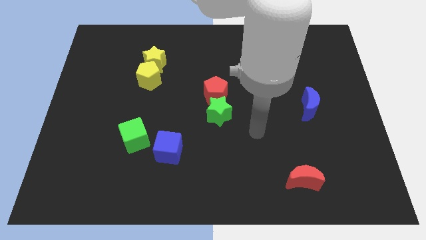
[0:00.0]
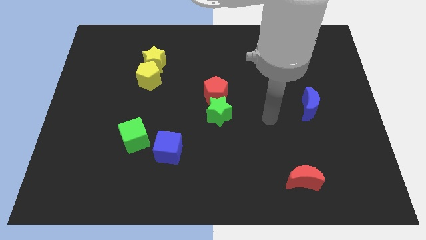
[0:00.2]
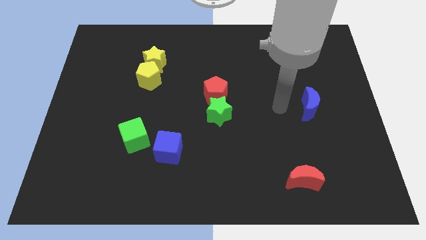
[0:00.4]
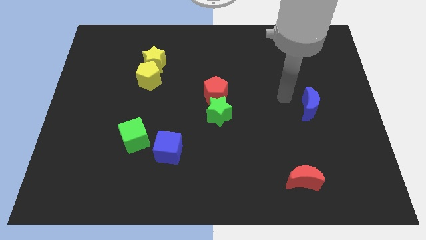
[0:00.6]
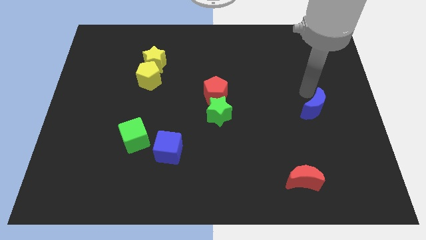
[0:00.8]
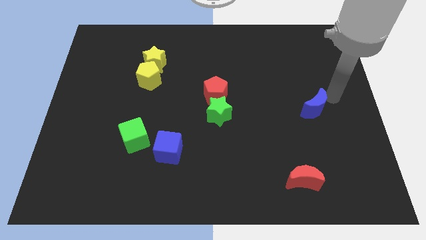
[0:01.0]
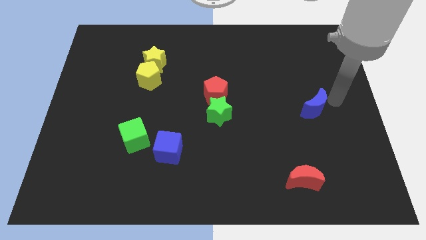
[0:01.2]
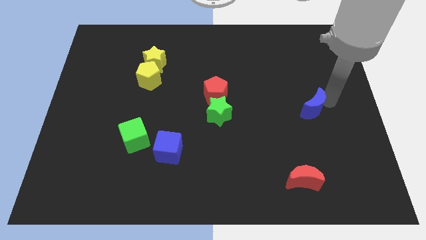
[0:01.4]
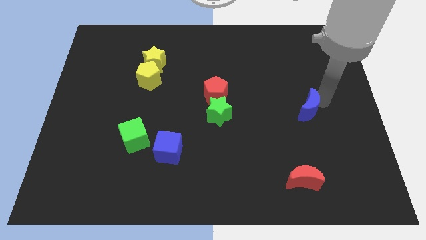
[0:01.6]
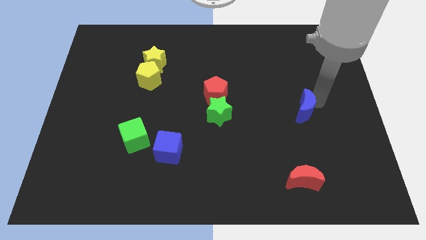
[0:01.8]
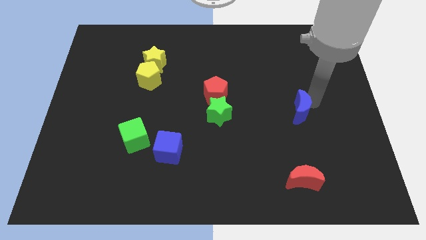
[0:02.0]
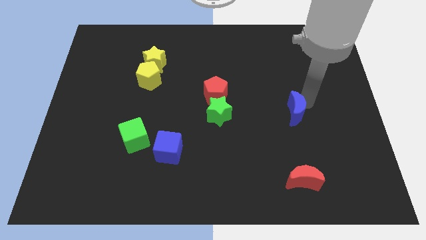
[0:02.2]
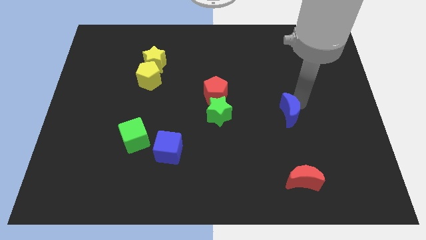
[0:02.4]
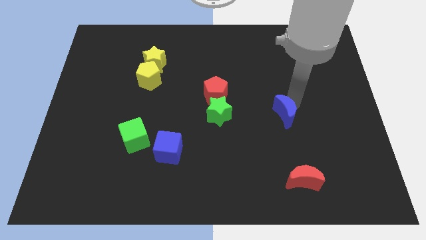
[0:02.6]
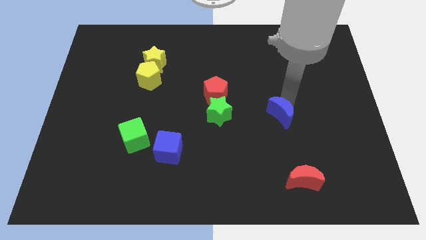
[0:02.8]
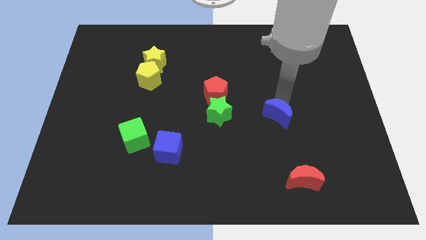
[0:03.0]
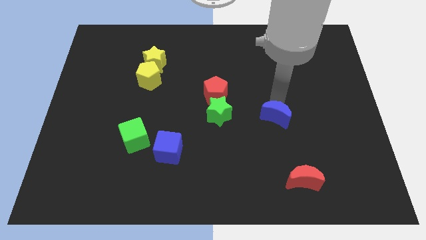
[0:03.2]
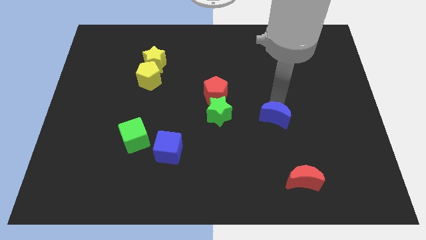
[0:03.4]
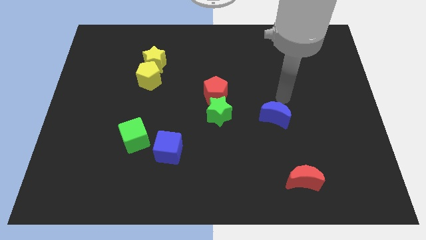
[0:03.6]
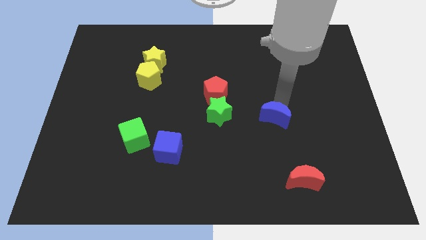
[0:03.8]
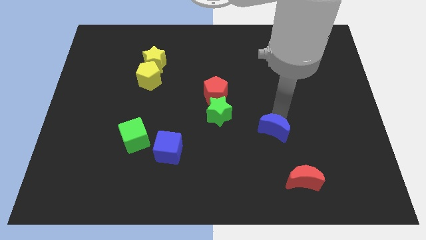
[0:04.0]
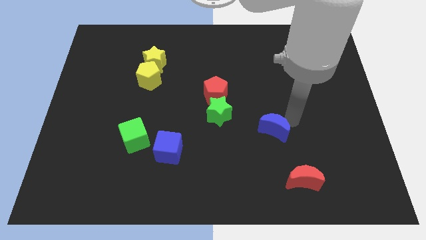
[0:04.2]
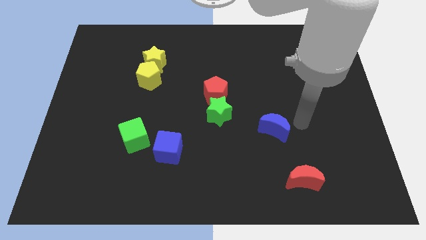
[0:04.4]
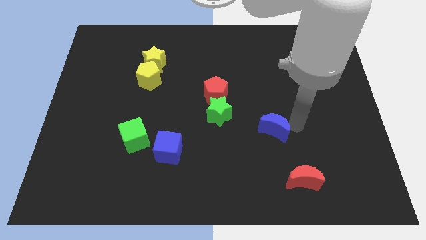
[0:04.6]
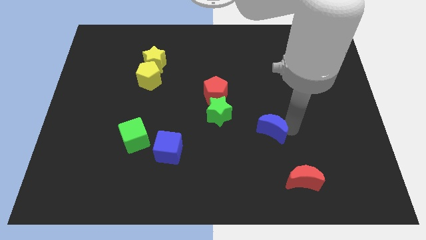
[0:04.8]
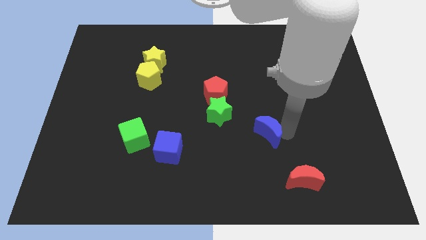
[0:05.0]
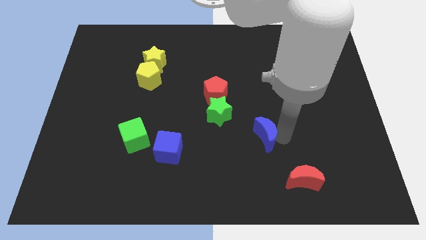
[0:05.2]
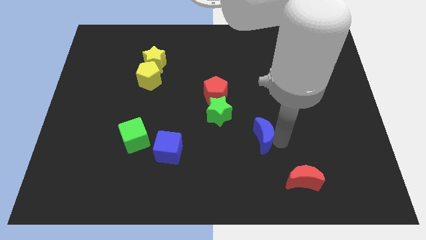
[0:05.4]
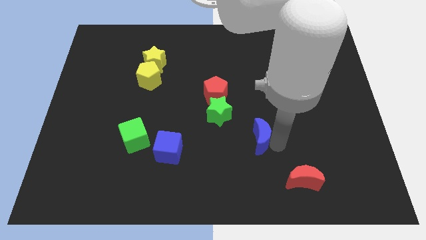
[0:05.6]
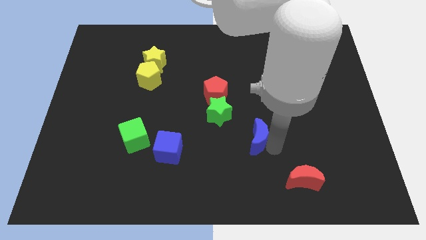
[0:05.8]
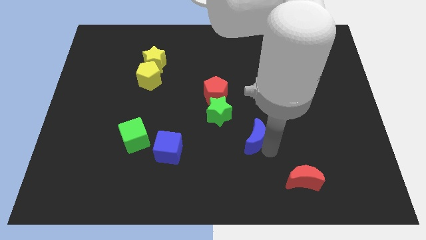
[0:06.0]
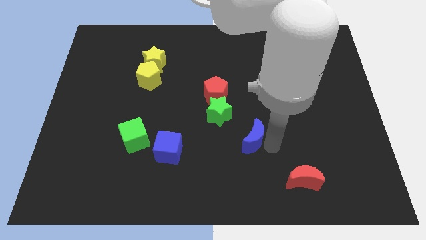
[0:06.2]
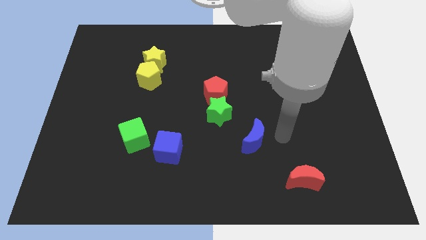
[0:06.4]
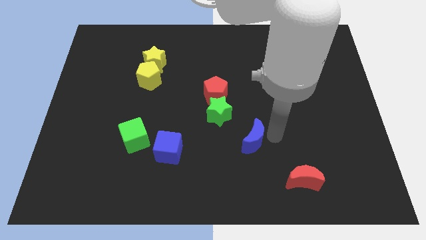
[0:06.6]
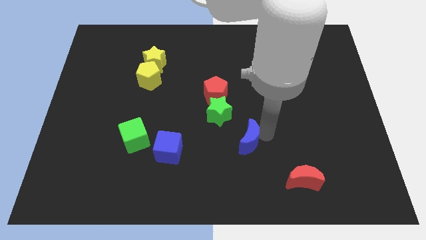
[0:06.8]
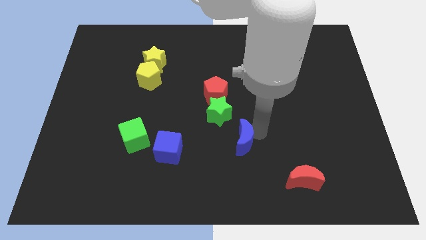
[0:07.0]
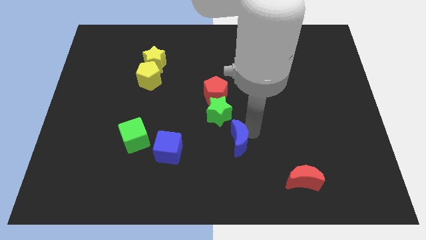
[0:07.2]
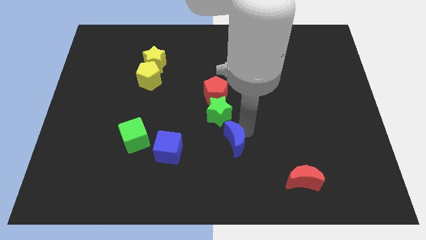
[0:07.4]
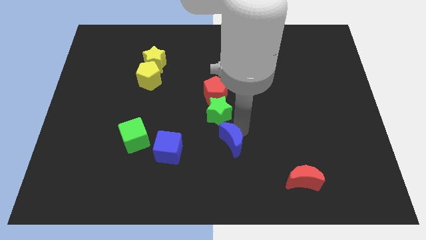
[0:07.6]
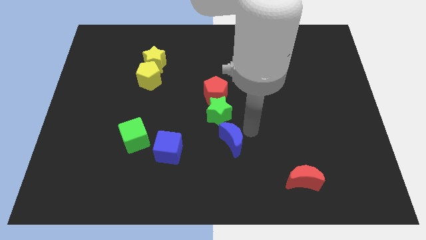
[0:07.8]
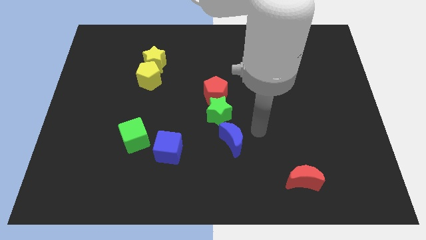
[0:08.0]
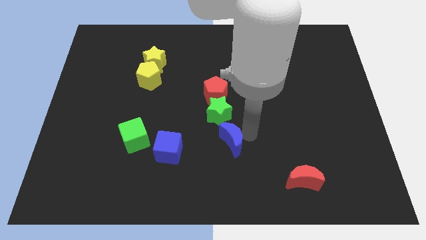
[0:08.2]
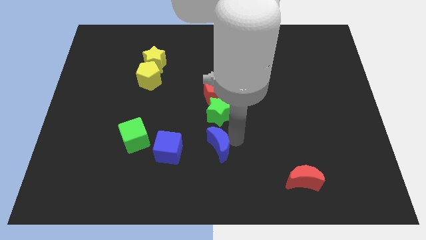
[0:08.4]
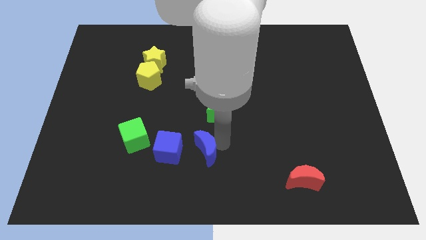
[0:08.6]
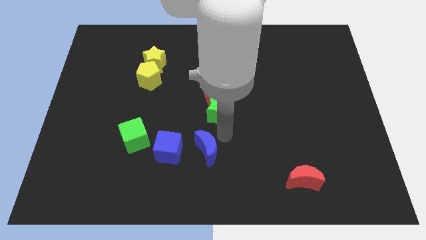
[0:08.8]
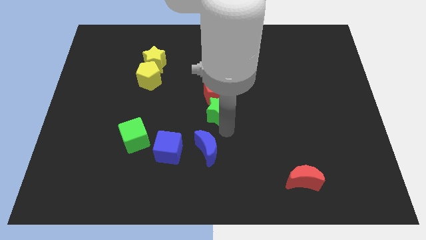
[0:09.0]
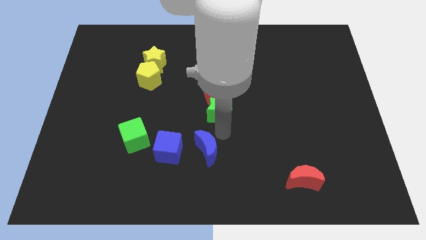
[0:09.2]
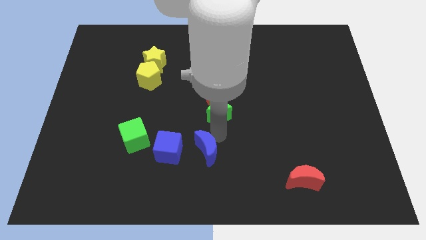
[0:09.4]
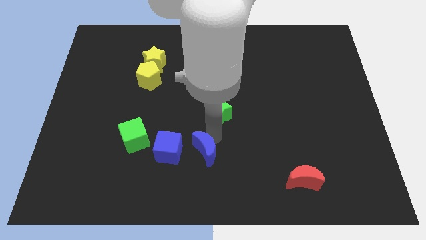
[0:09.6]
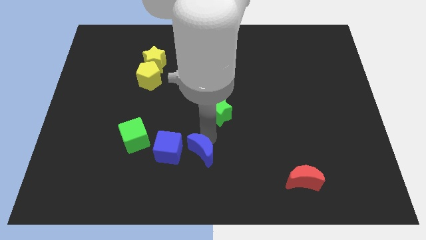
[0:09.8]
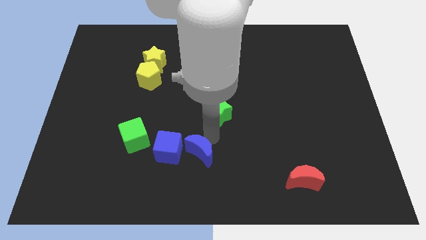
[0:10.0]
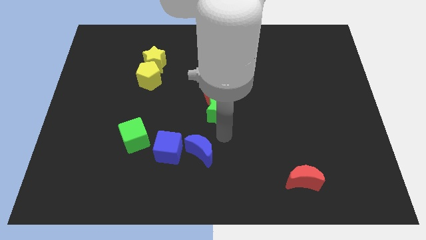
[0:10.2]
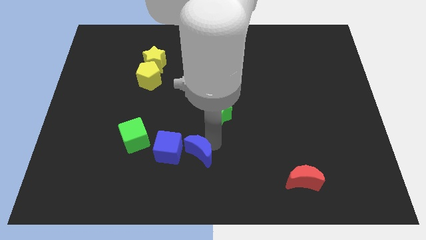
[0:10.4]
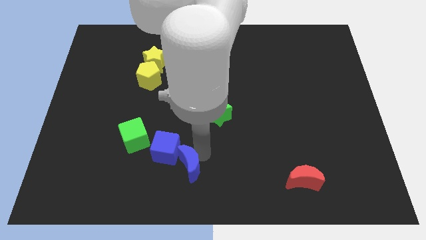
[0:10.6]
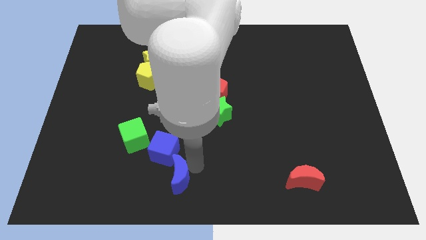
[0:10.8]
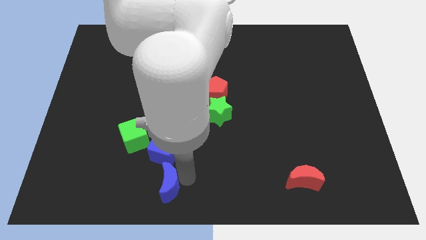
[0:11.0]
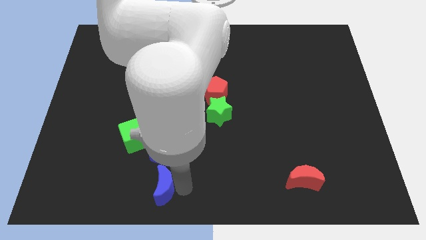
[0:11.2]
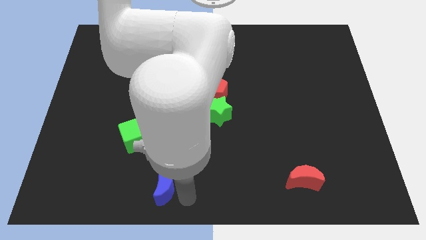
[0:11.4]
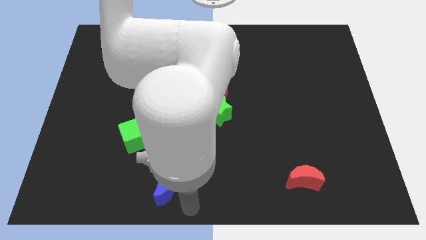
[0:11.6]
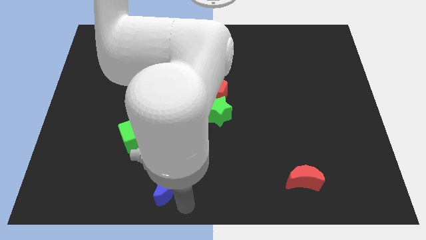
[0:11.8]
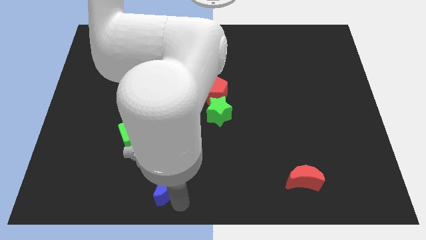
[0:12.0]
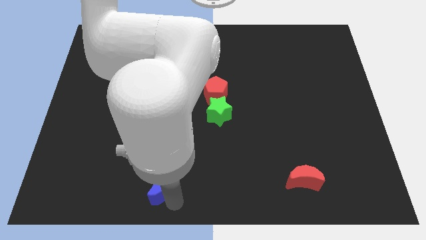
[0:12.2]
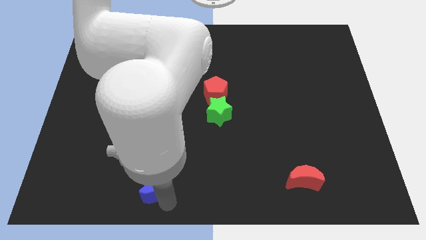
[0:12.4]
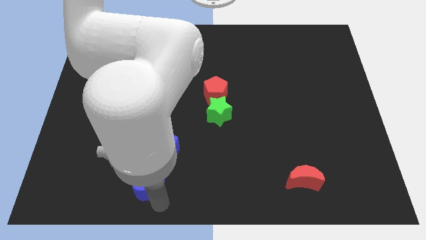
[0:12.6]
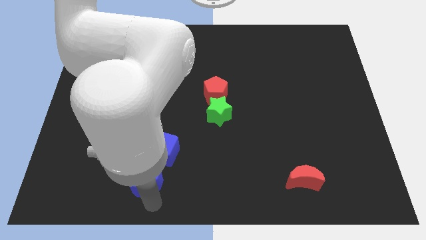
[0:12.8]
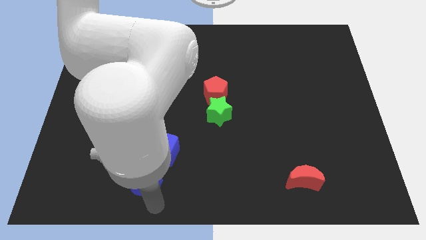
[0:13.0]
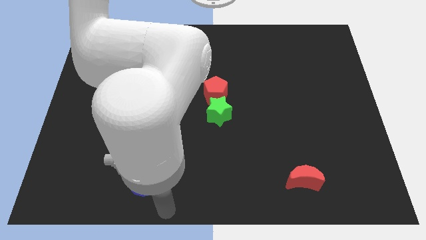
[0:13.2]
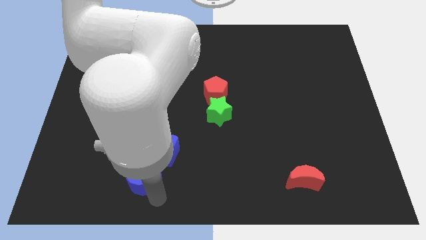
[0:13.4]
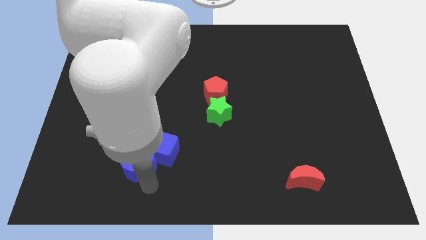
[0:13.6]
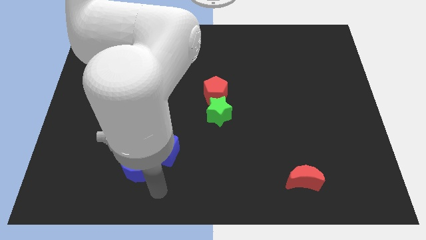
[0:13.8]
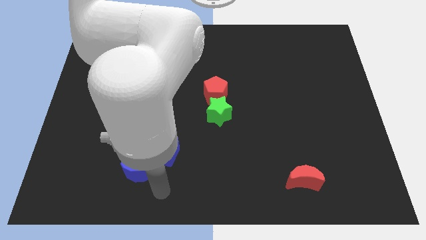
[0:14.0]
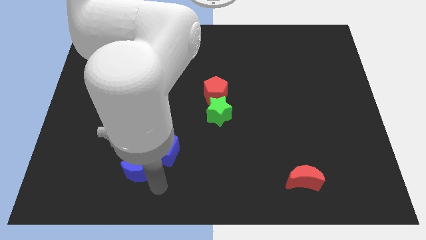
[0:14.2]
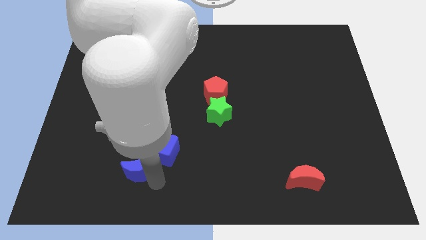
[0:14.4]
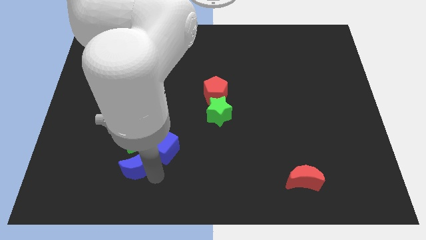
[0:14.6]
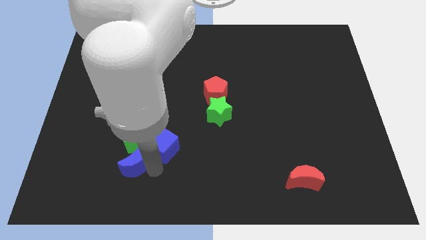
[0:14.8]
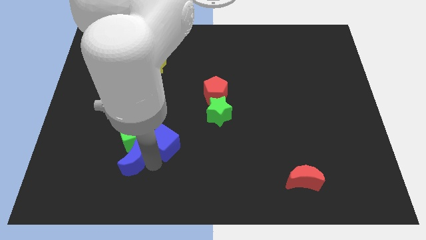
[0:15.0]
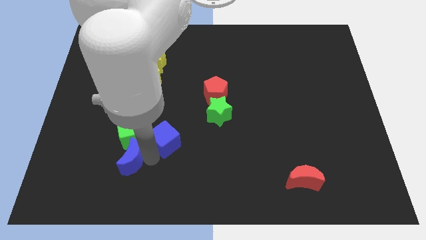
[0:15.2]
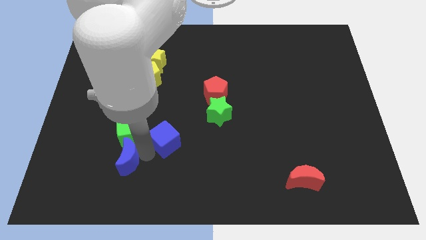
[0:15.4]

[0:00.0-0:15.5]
slide the blue moon diagonally down and to the left of the green cube

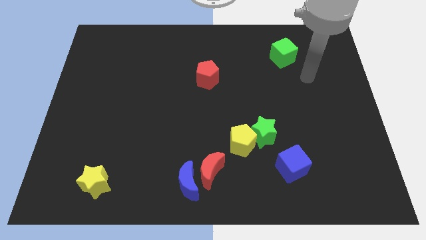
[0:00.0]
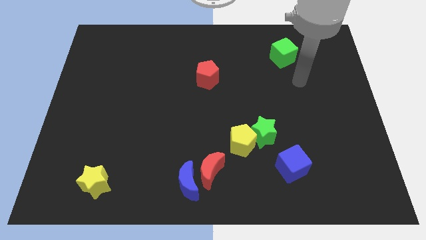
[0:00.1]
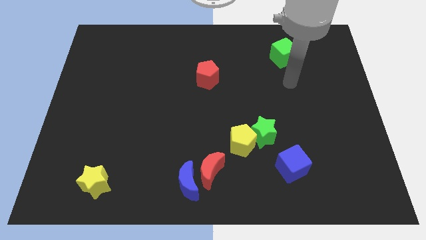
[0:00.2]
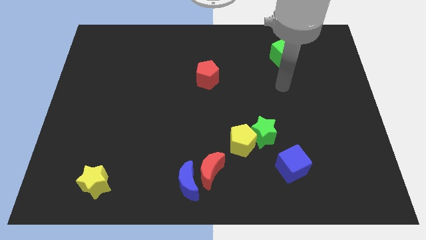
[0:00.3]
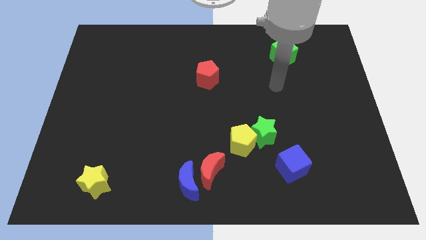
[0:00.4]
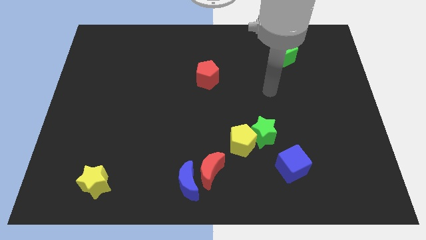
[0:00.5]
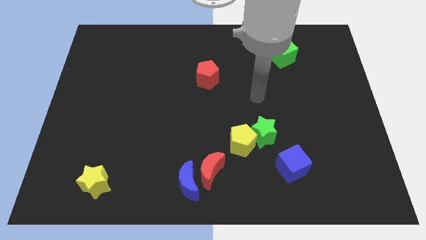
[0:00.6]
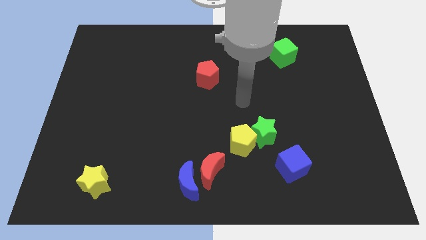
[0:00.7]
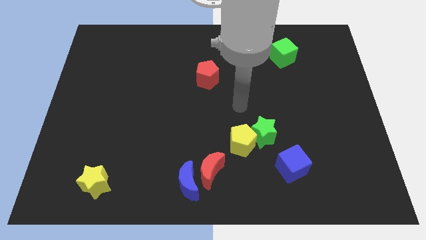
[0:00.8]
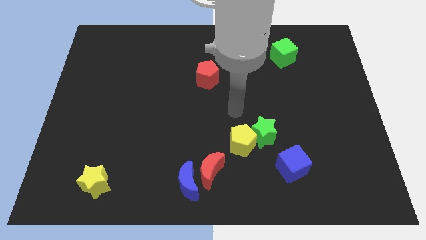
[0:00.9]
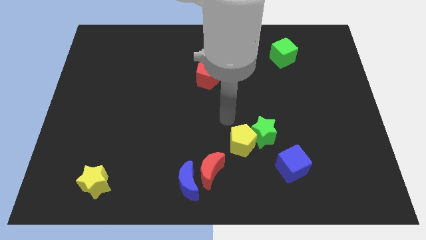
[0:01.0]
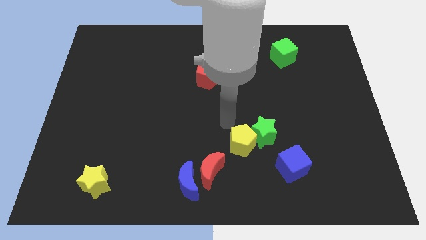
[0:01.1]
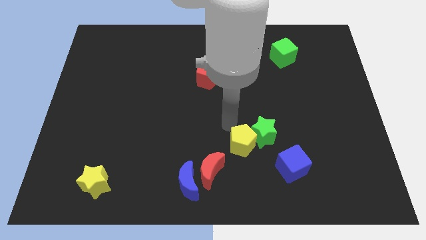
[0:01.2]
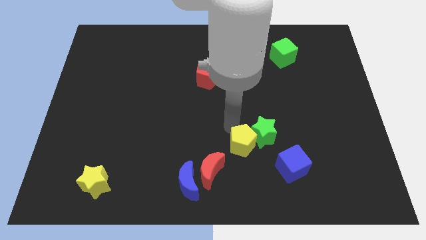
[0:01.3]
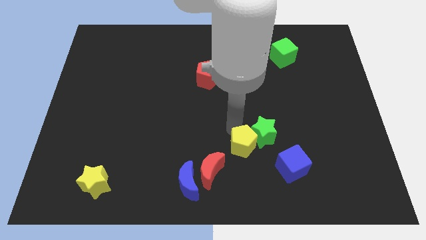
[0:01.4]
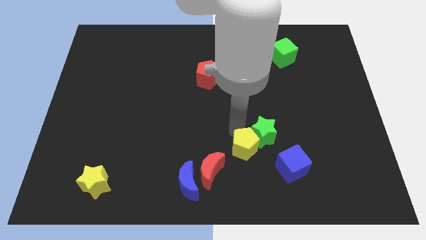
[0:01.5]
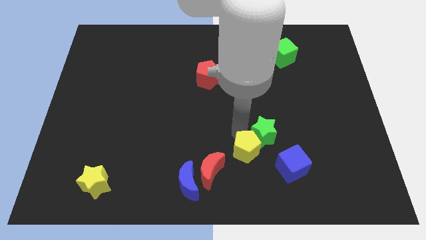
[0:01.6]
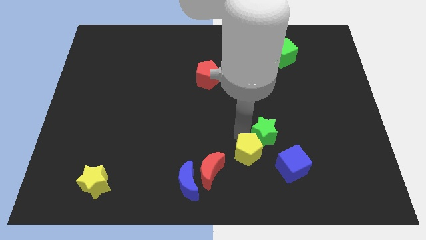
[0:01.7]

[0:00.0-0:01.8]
slide the yellow pentagon to the right side of the red moon
